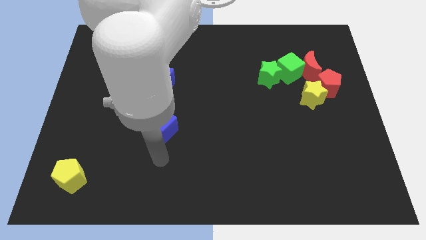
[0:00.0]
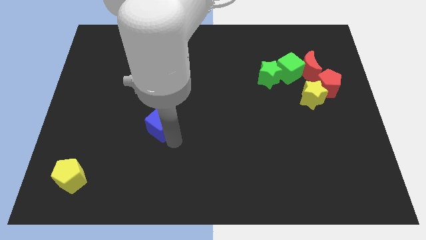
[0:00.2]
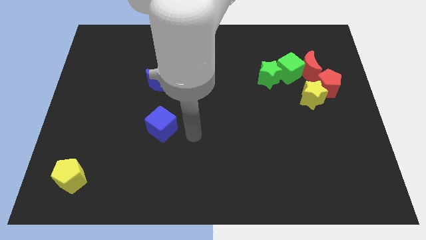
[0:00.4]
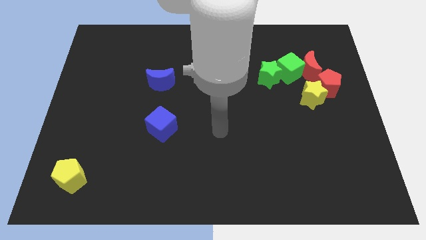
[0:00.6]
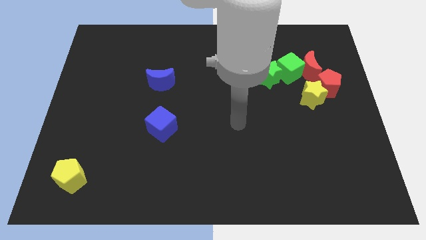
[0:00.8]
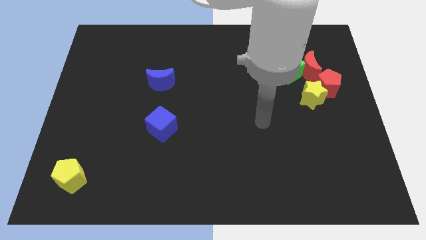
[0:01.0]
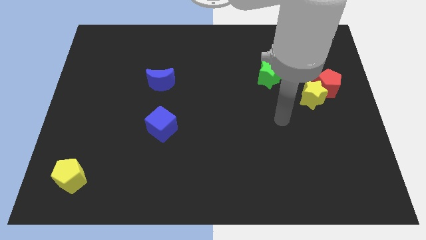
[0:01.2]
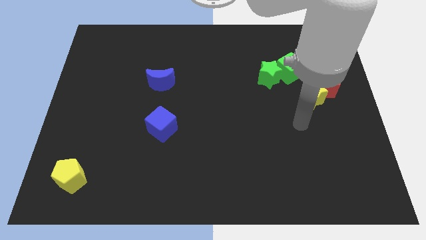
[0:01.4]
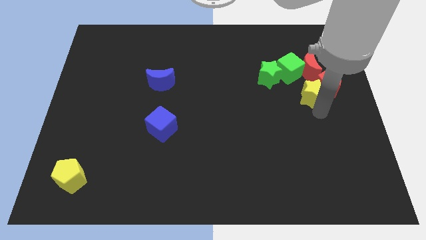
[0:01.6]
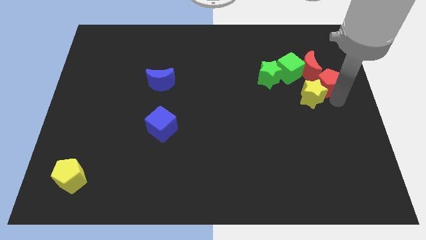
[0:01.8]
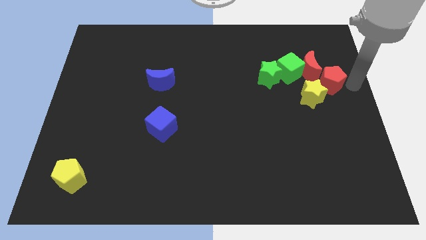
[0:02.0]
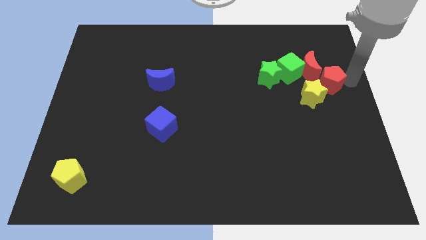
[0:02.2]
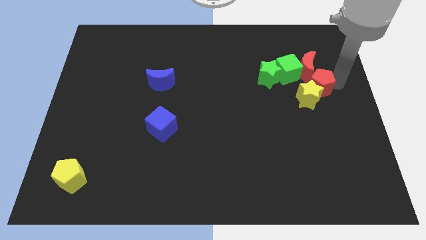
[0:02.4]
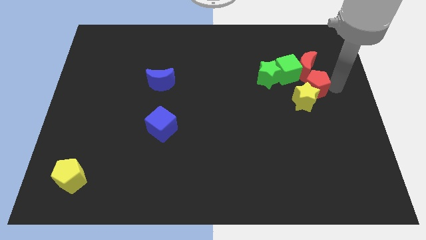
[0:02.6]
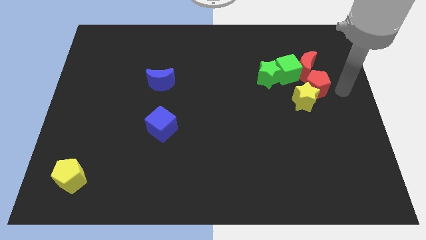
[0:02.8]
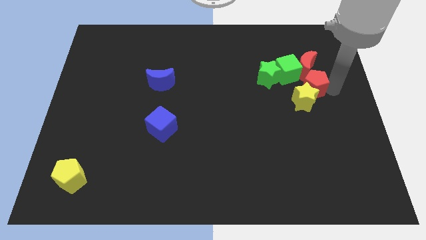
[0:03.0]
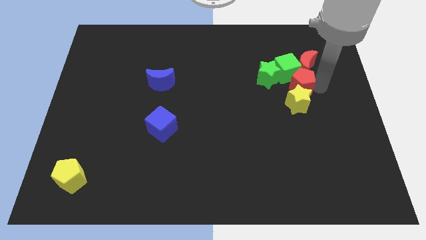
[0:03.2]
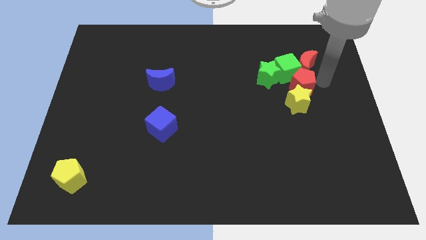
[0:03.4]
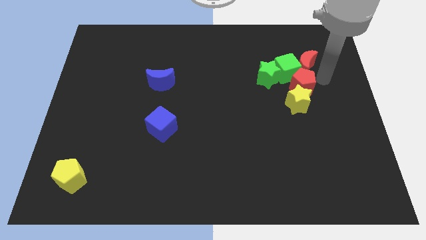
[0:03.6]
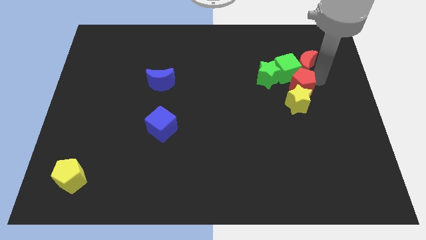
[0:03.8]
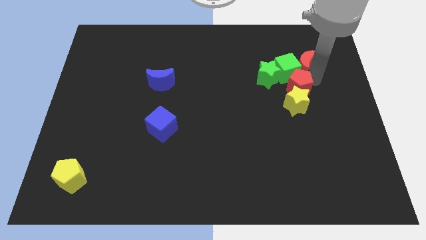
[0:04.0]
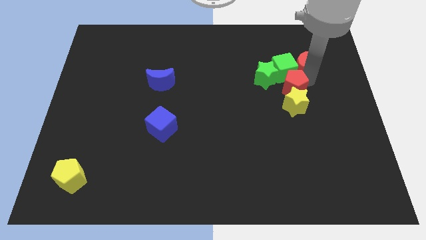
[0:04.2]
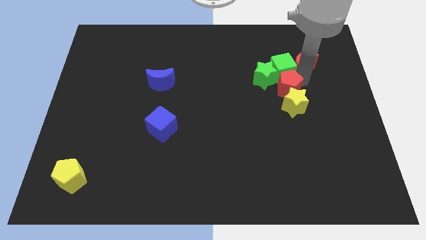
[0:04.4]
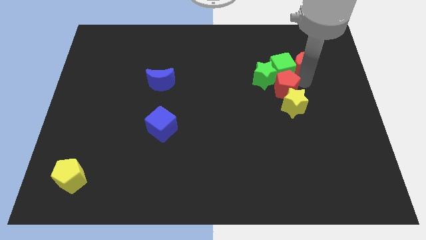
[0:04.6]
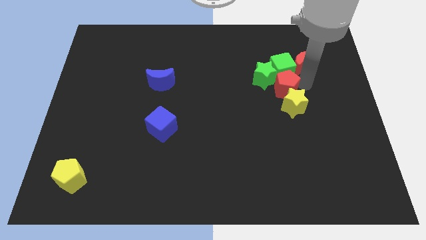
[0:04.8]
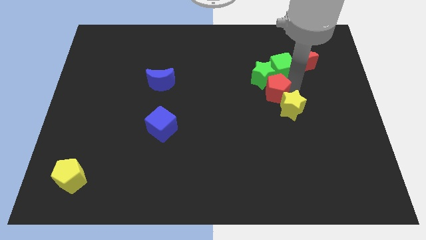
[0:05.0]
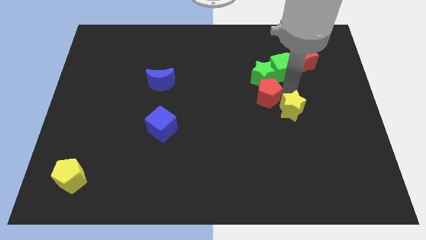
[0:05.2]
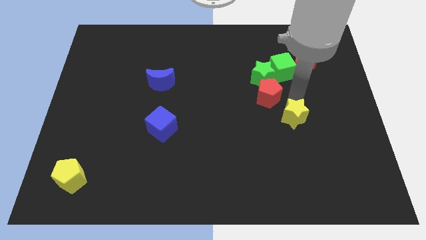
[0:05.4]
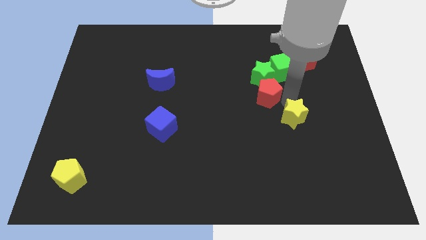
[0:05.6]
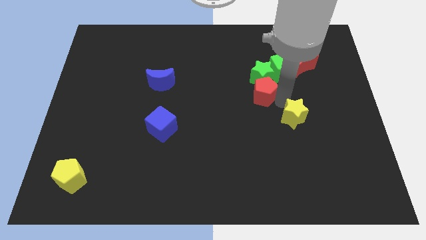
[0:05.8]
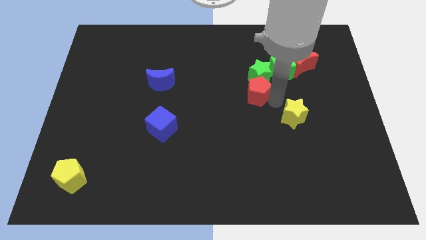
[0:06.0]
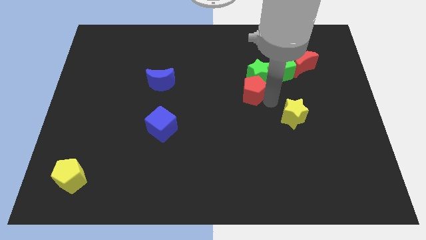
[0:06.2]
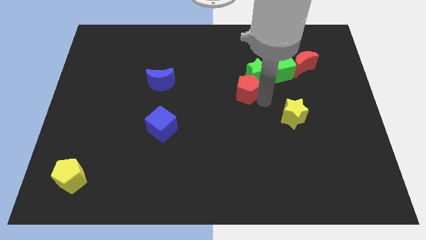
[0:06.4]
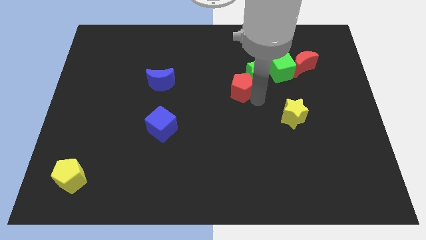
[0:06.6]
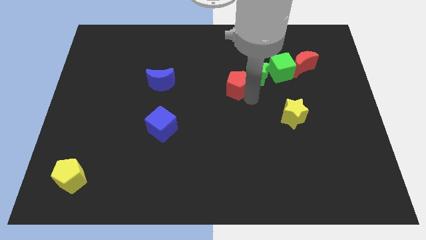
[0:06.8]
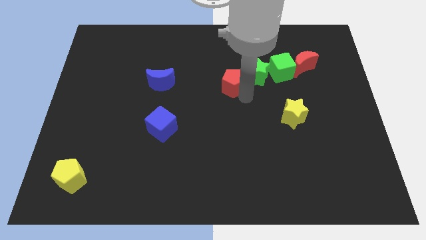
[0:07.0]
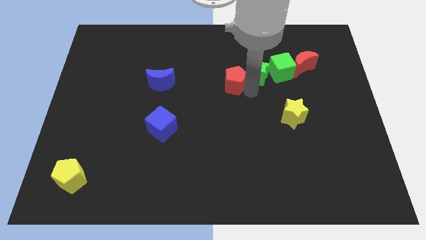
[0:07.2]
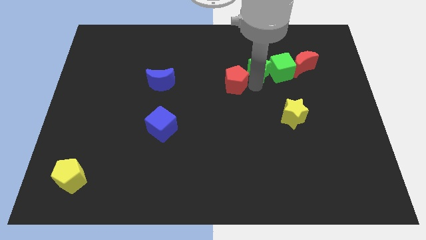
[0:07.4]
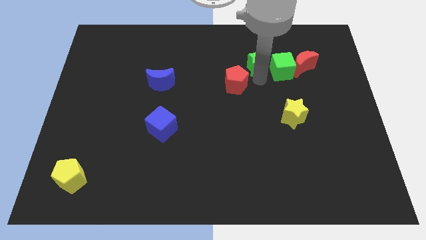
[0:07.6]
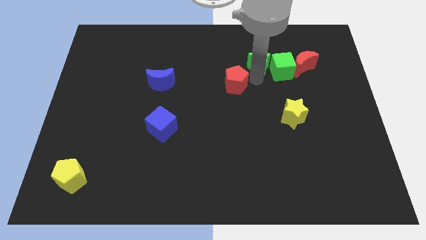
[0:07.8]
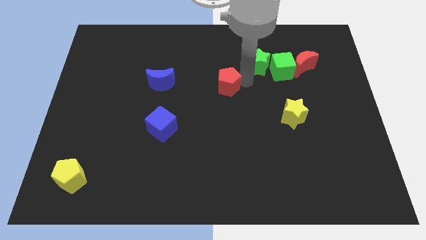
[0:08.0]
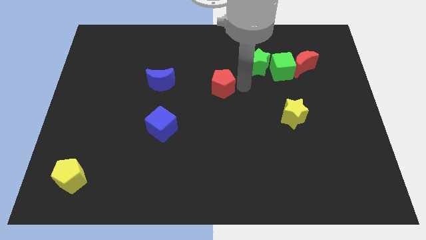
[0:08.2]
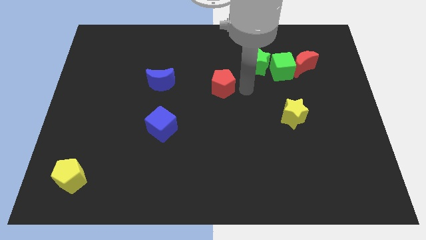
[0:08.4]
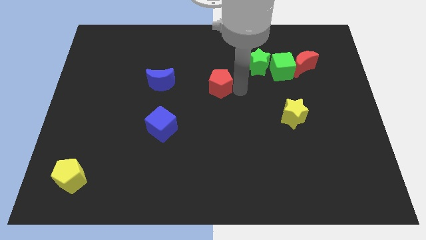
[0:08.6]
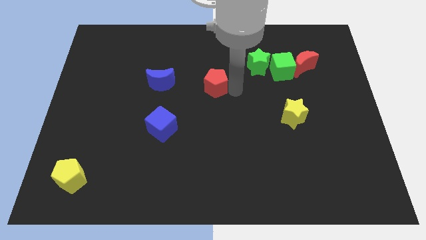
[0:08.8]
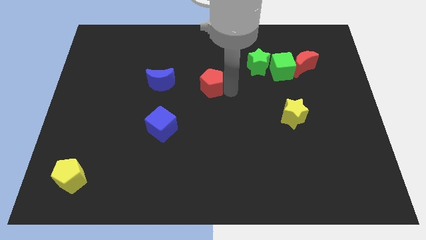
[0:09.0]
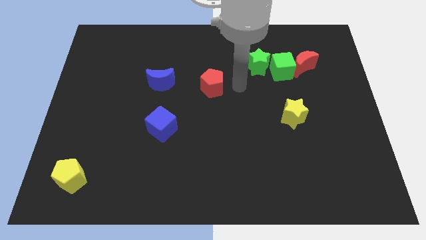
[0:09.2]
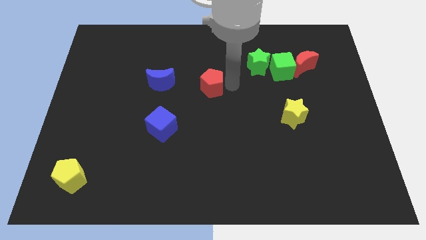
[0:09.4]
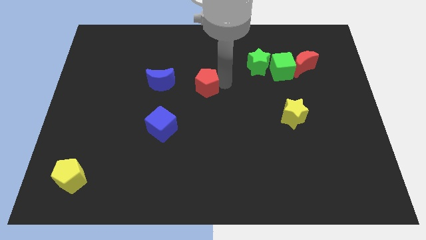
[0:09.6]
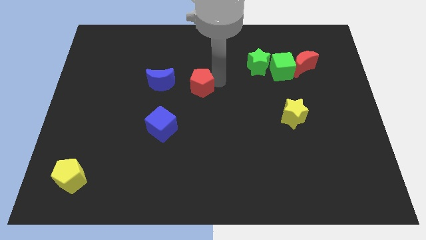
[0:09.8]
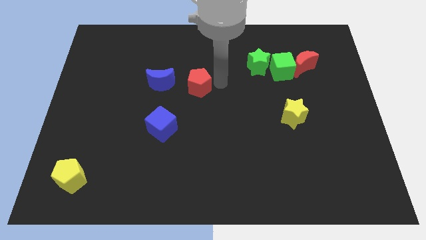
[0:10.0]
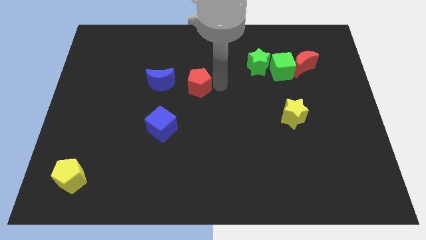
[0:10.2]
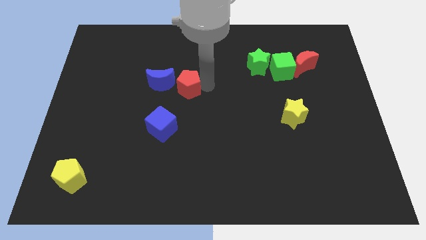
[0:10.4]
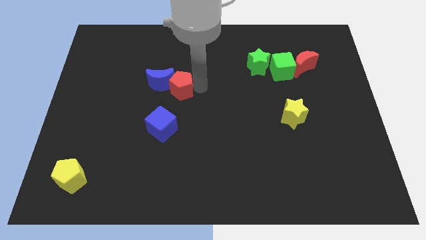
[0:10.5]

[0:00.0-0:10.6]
put the red pentagon towards the blue moon

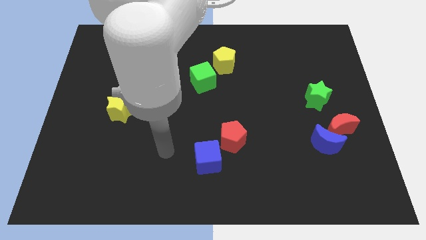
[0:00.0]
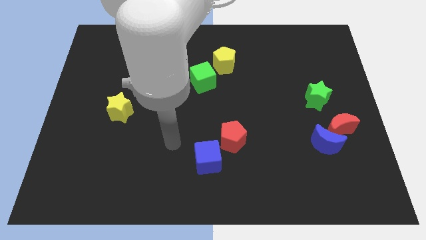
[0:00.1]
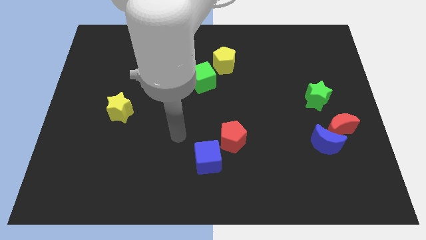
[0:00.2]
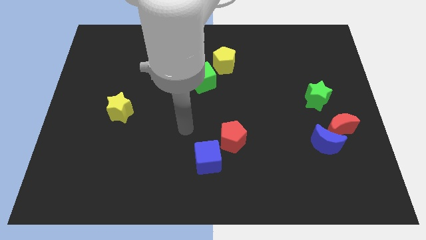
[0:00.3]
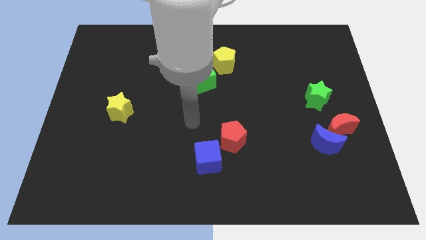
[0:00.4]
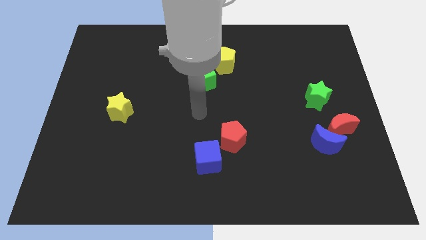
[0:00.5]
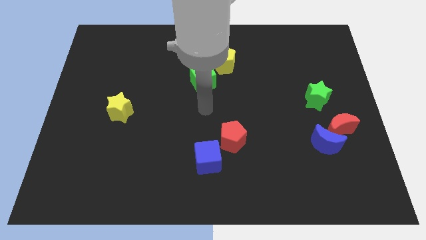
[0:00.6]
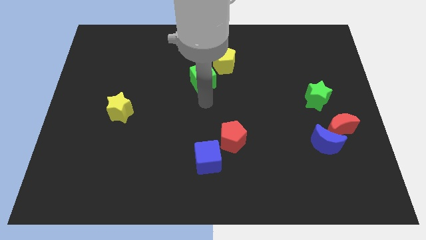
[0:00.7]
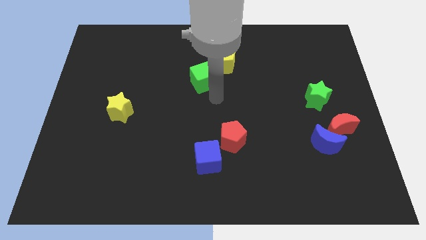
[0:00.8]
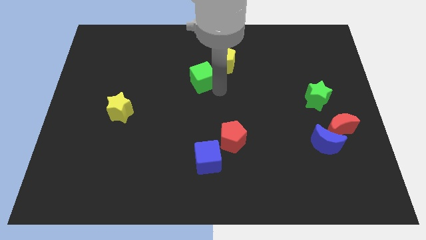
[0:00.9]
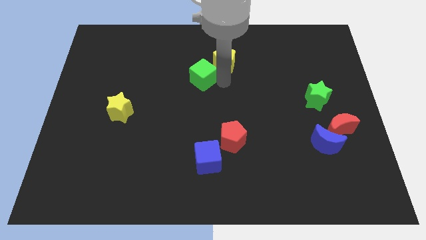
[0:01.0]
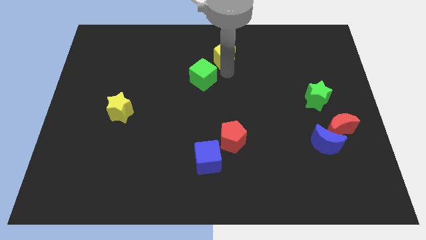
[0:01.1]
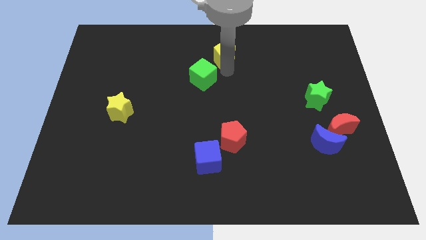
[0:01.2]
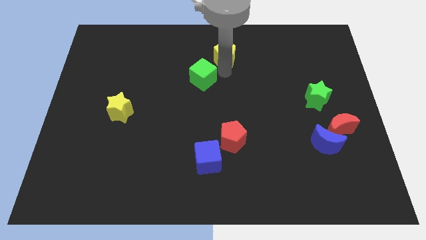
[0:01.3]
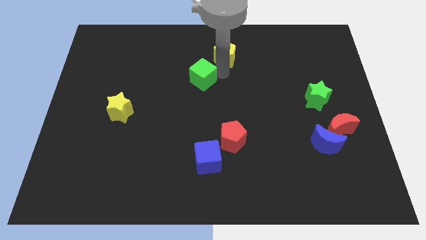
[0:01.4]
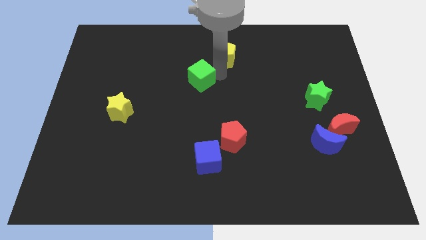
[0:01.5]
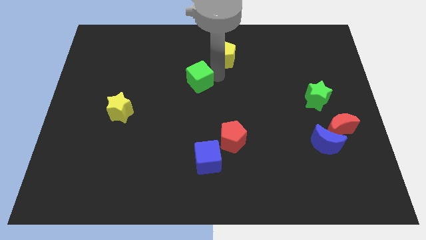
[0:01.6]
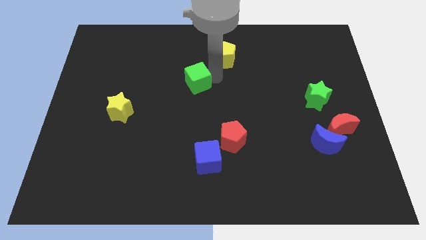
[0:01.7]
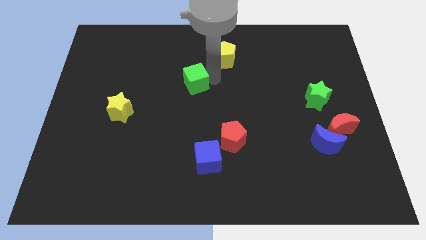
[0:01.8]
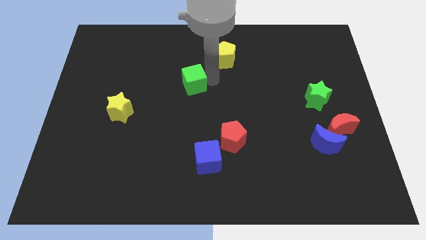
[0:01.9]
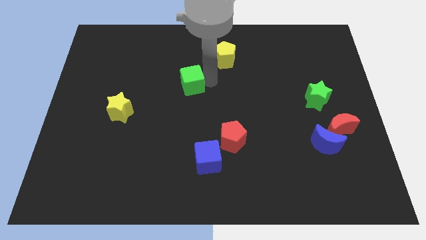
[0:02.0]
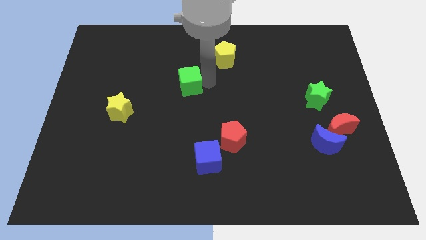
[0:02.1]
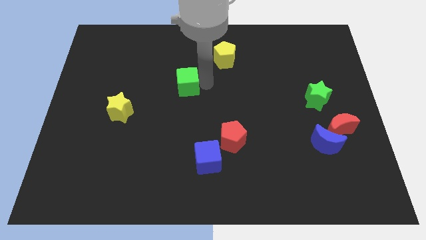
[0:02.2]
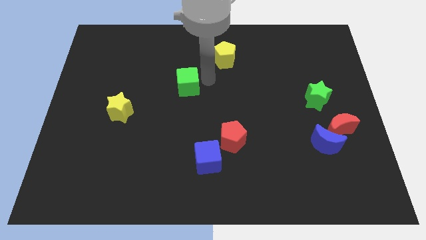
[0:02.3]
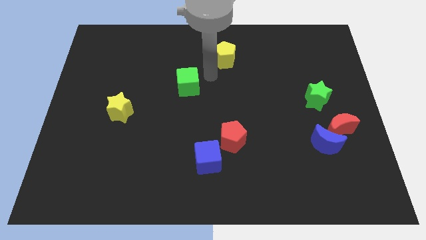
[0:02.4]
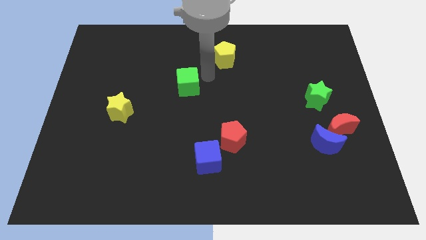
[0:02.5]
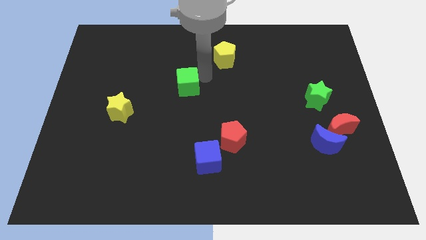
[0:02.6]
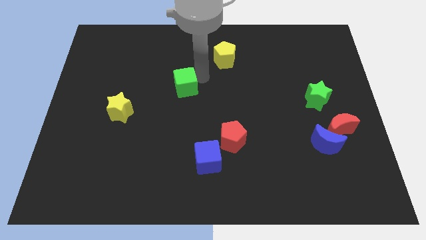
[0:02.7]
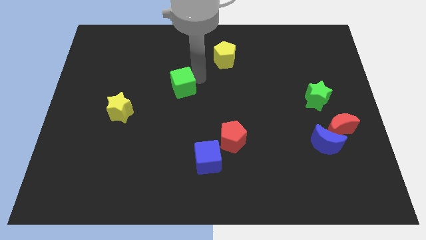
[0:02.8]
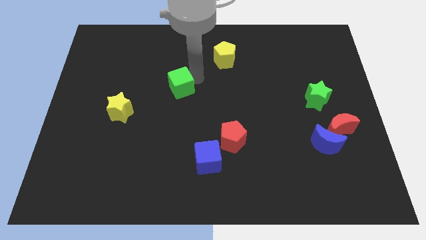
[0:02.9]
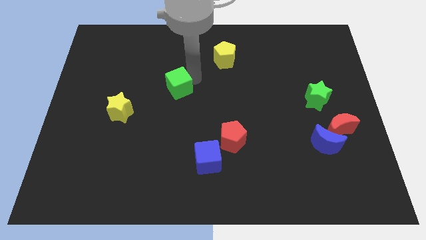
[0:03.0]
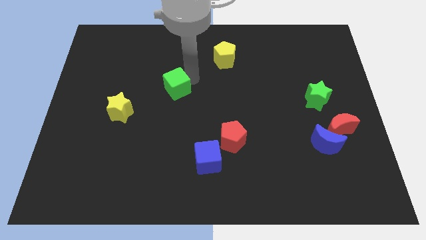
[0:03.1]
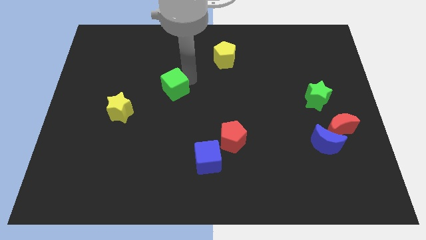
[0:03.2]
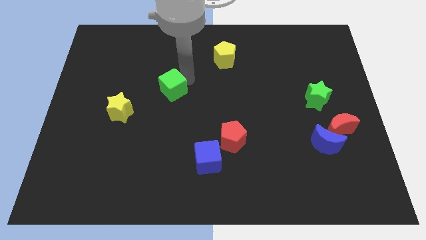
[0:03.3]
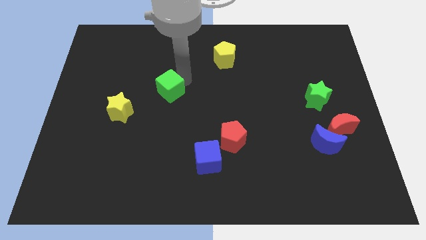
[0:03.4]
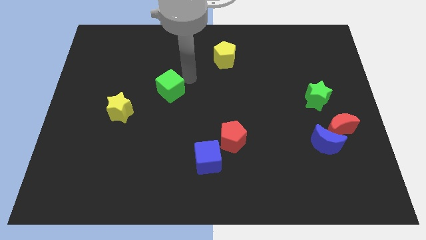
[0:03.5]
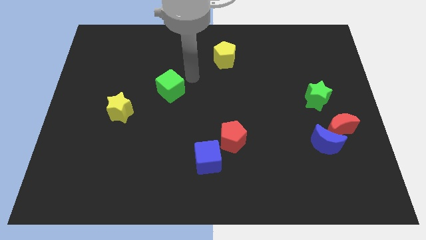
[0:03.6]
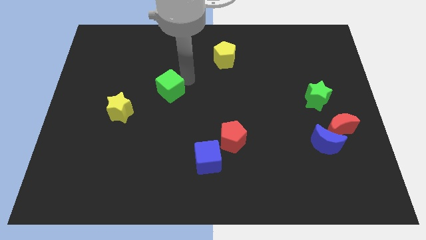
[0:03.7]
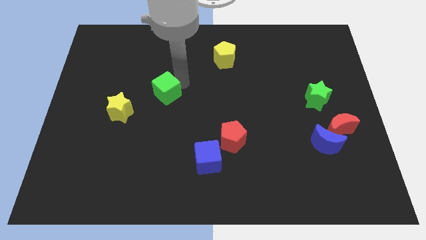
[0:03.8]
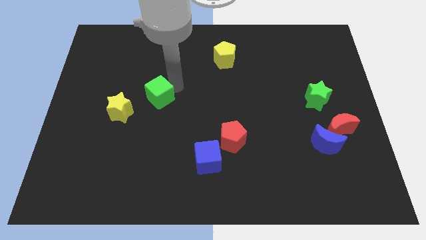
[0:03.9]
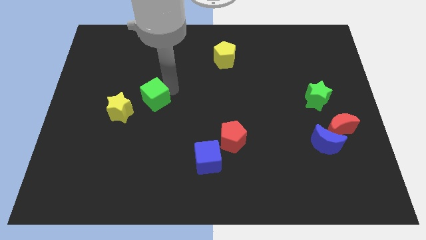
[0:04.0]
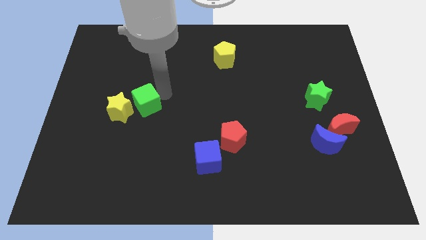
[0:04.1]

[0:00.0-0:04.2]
push the green cube towards the yellow star
